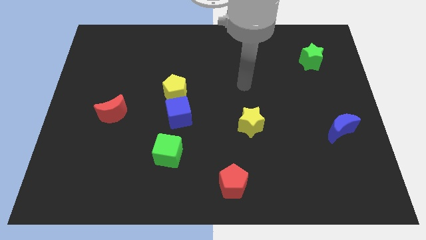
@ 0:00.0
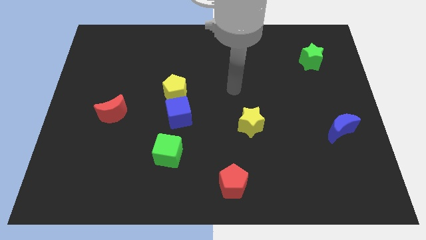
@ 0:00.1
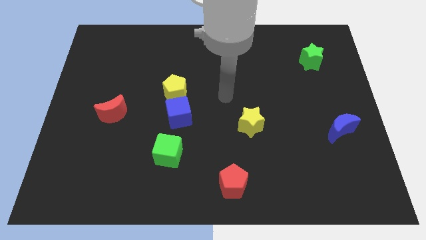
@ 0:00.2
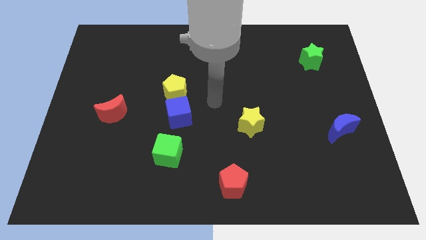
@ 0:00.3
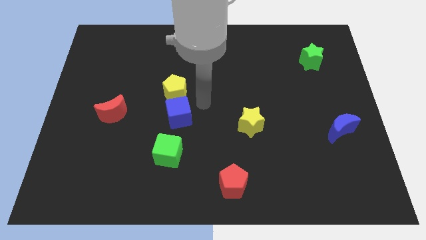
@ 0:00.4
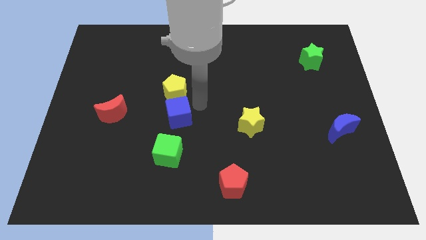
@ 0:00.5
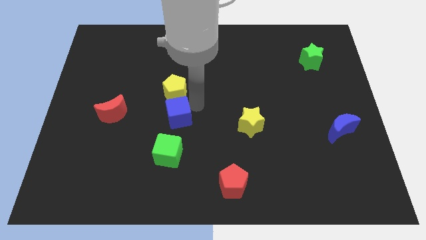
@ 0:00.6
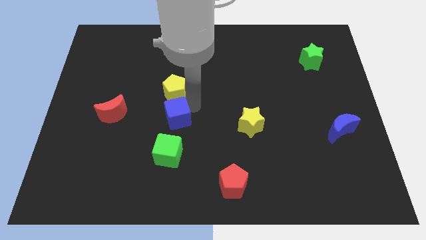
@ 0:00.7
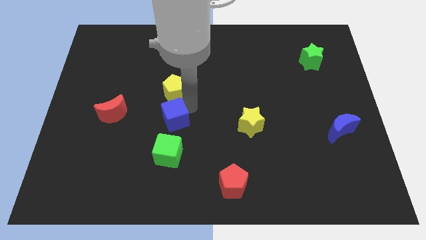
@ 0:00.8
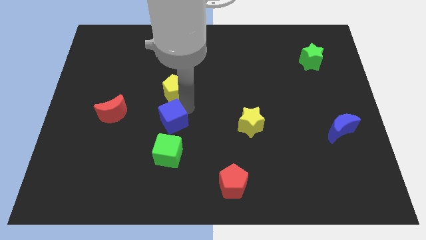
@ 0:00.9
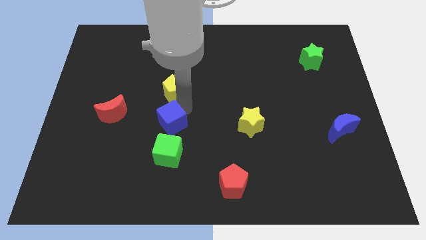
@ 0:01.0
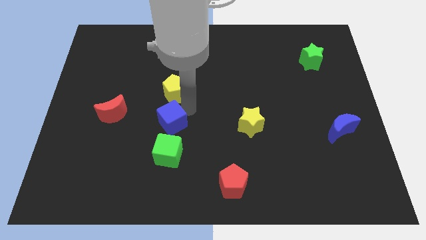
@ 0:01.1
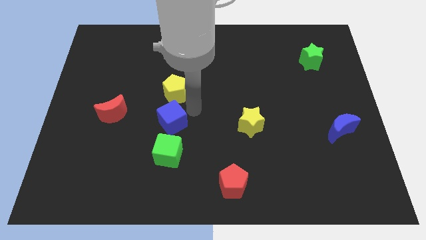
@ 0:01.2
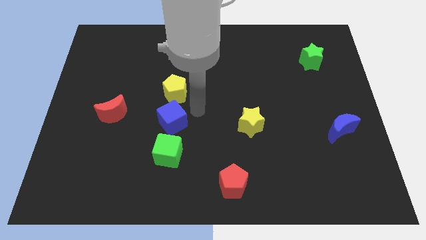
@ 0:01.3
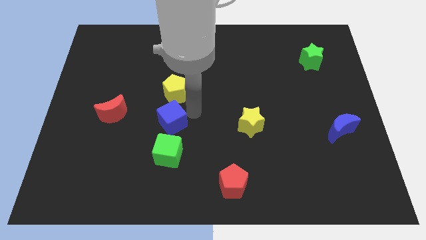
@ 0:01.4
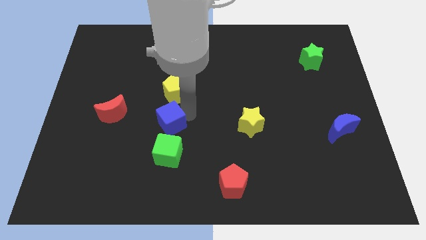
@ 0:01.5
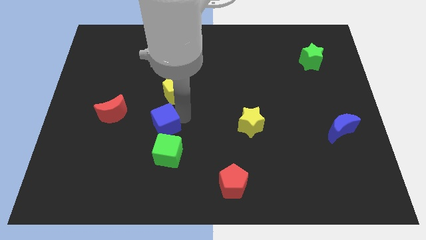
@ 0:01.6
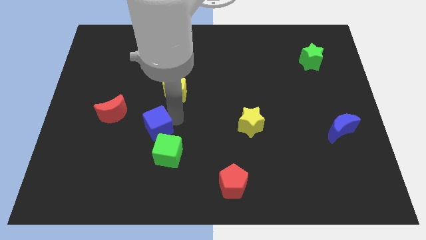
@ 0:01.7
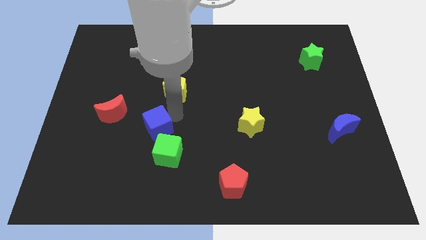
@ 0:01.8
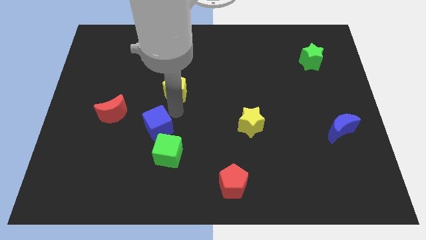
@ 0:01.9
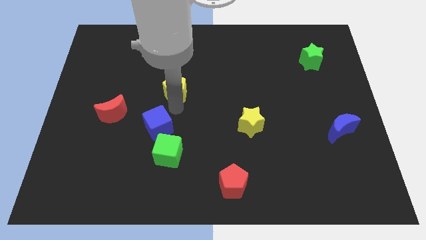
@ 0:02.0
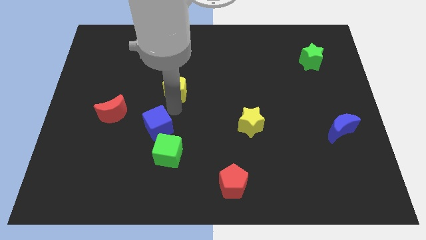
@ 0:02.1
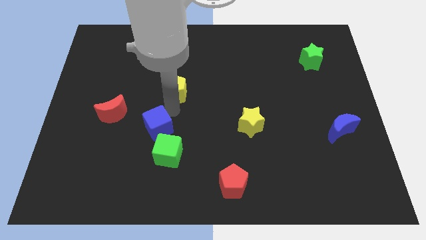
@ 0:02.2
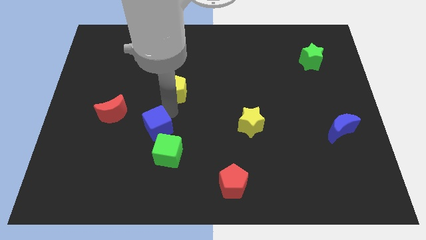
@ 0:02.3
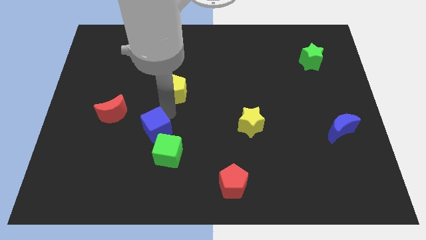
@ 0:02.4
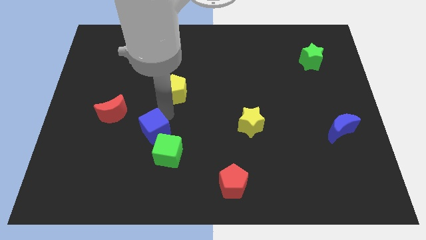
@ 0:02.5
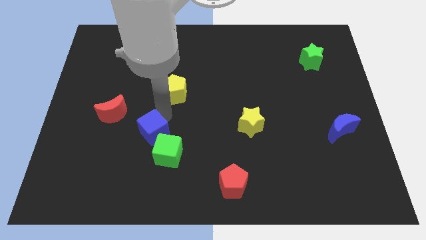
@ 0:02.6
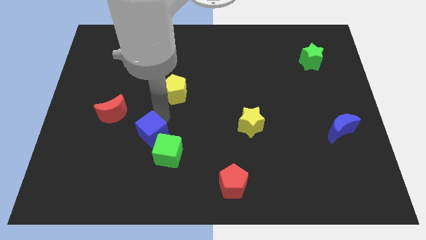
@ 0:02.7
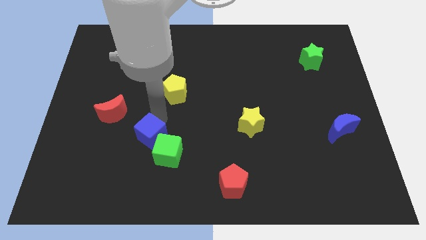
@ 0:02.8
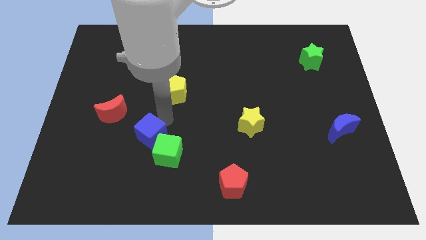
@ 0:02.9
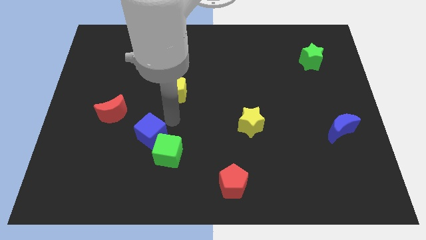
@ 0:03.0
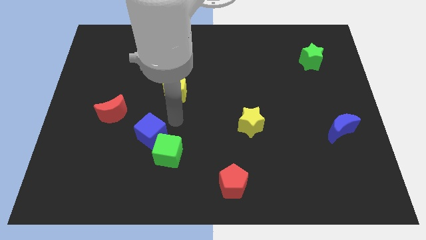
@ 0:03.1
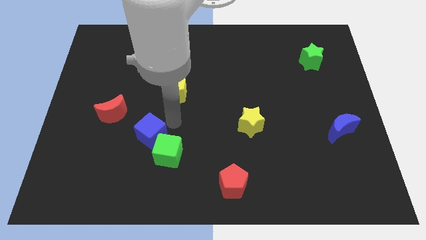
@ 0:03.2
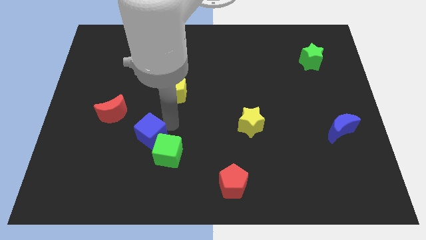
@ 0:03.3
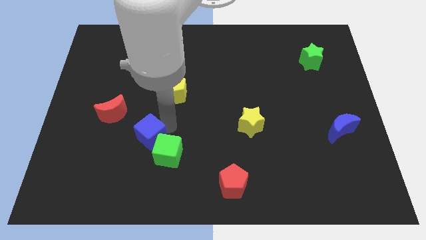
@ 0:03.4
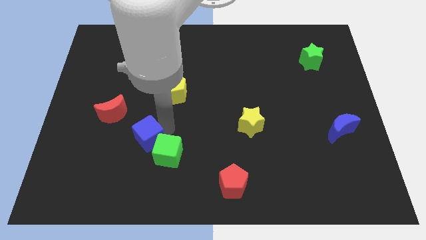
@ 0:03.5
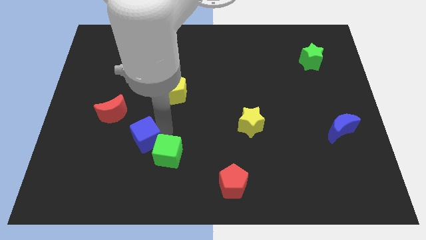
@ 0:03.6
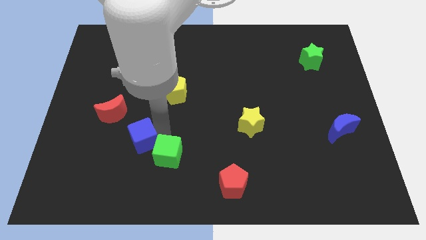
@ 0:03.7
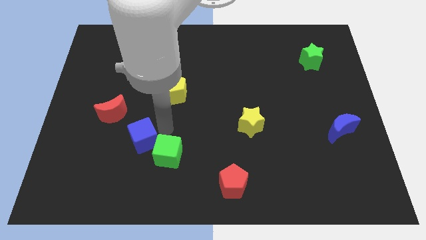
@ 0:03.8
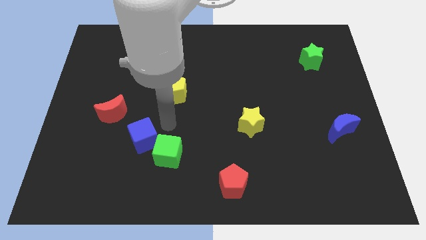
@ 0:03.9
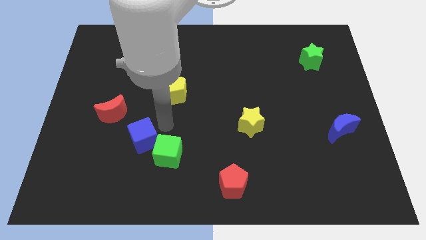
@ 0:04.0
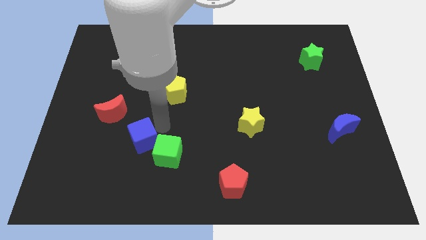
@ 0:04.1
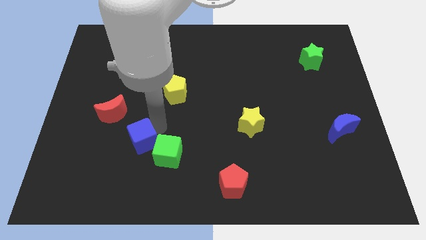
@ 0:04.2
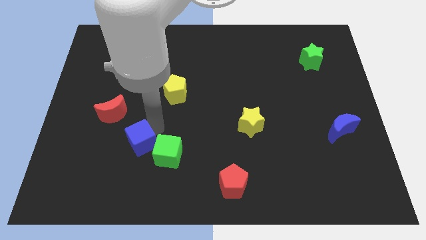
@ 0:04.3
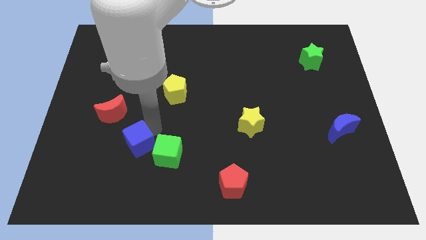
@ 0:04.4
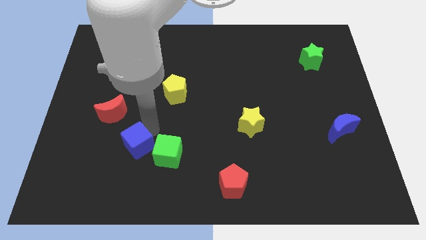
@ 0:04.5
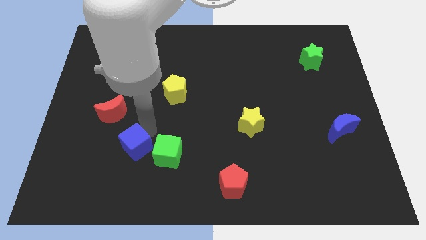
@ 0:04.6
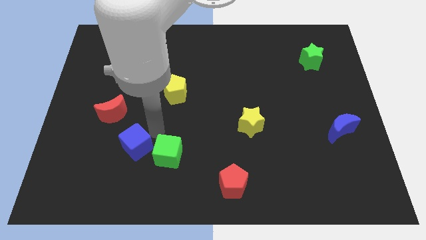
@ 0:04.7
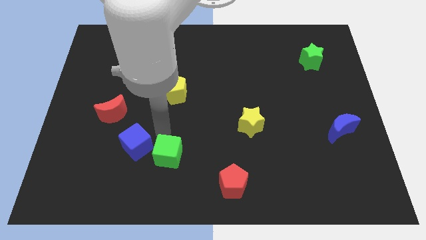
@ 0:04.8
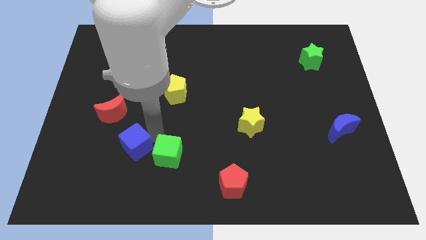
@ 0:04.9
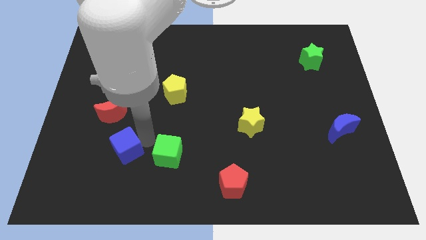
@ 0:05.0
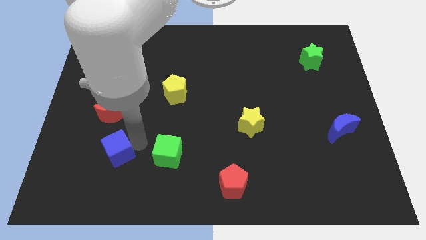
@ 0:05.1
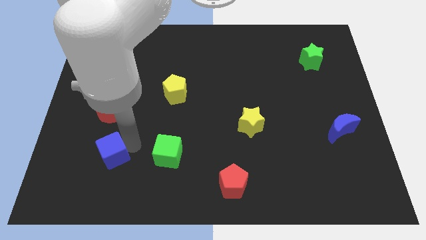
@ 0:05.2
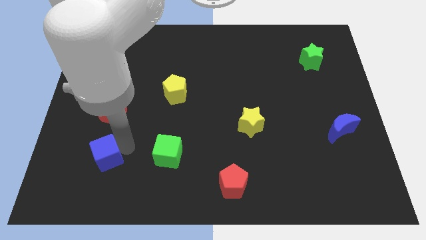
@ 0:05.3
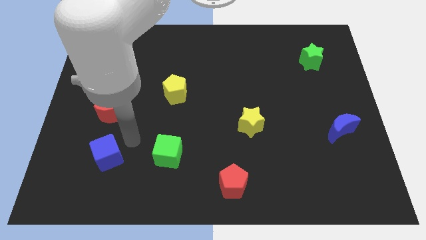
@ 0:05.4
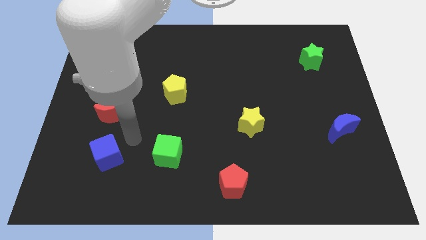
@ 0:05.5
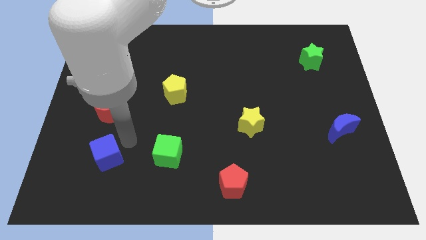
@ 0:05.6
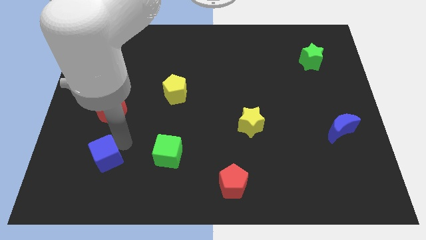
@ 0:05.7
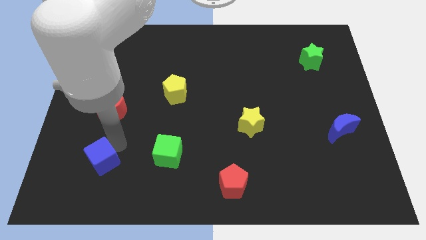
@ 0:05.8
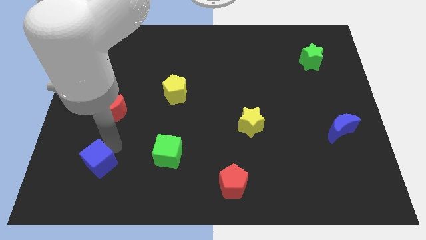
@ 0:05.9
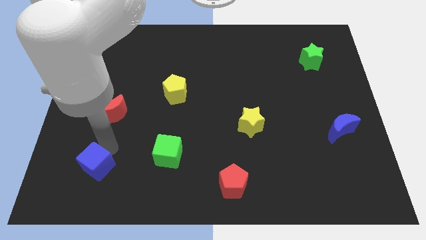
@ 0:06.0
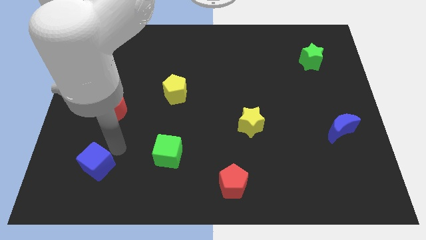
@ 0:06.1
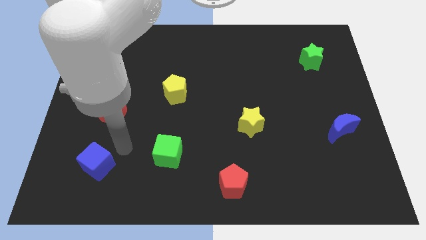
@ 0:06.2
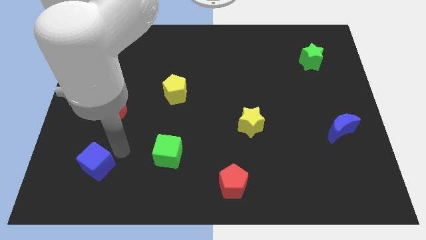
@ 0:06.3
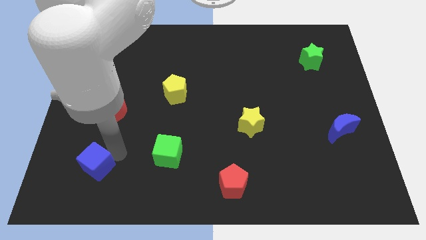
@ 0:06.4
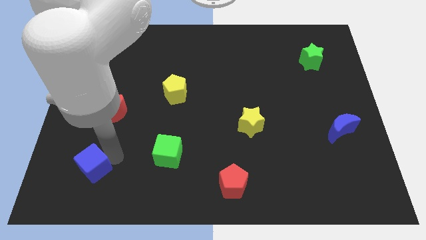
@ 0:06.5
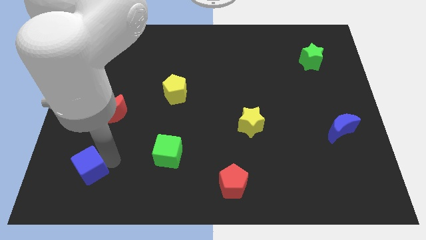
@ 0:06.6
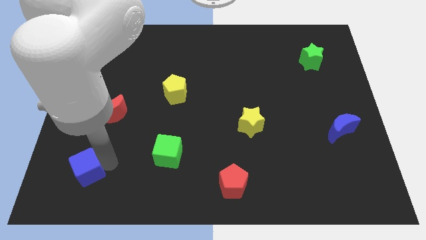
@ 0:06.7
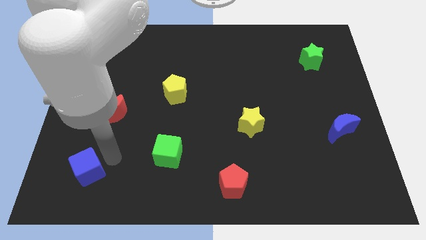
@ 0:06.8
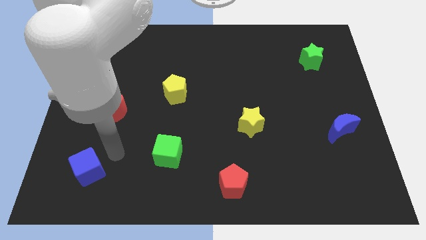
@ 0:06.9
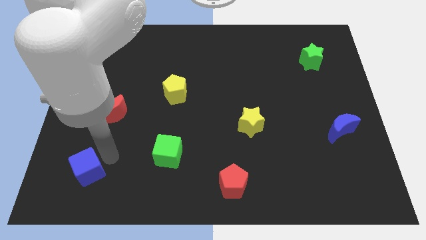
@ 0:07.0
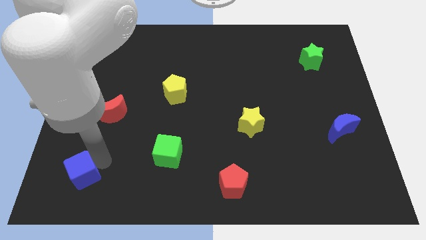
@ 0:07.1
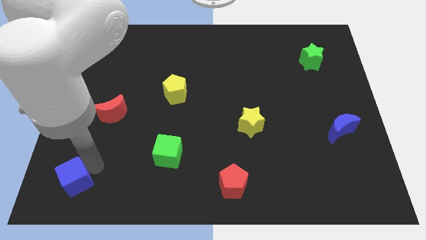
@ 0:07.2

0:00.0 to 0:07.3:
move the blue cube to the bottom left of the board

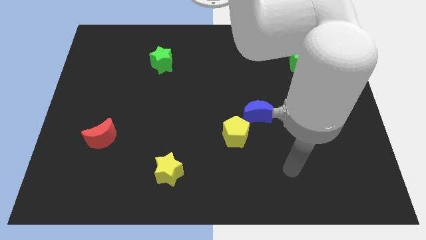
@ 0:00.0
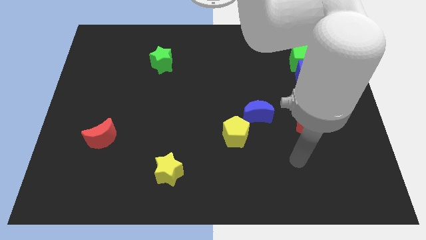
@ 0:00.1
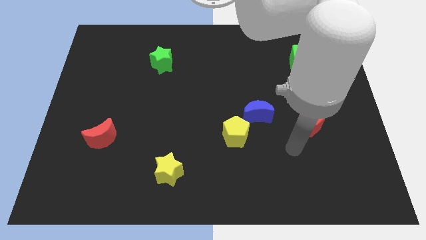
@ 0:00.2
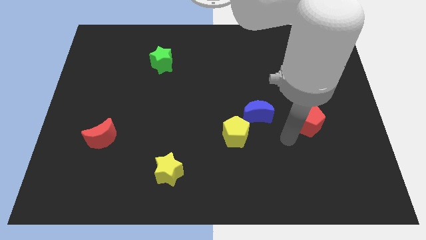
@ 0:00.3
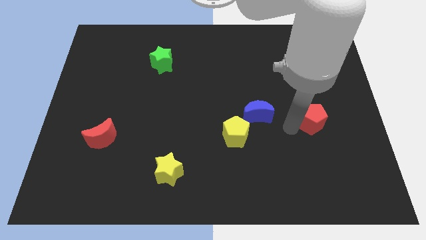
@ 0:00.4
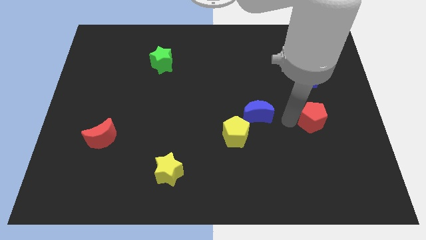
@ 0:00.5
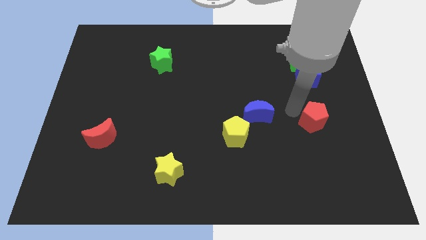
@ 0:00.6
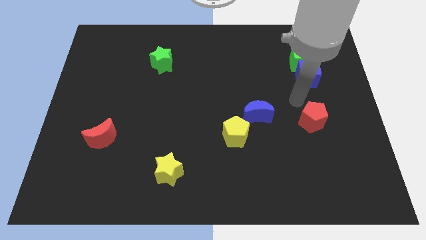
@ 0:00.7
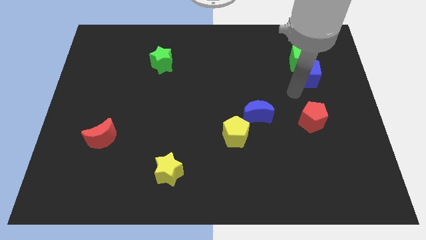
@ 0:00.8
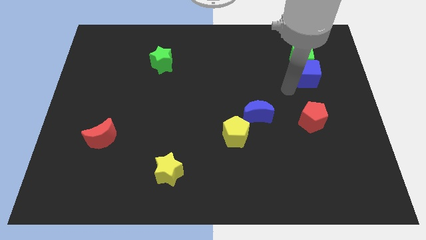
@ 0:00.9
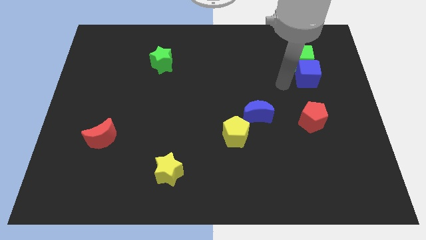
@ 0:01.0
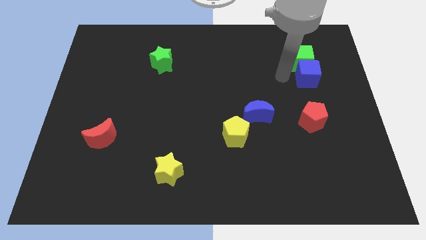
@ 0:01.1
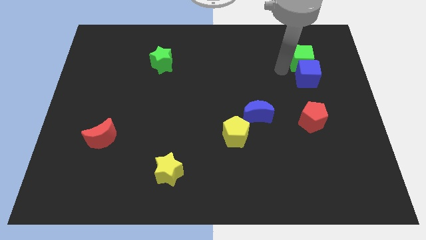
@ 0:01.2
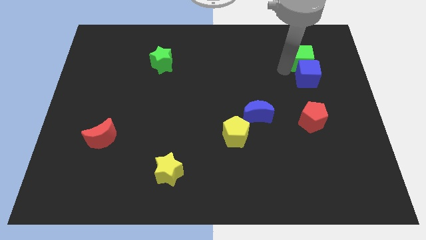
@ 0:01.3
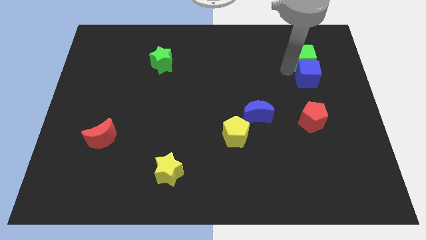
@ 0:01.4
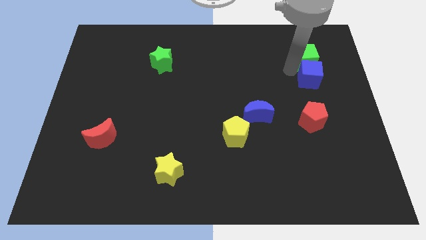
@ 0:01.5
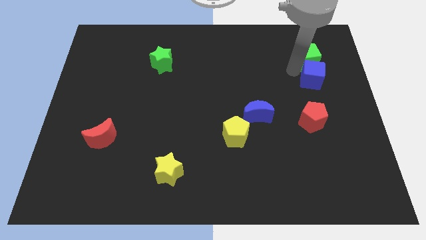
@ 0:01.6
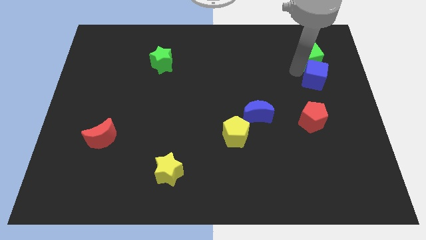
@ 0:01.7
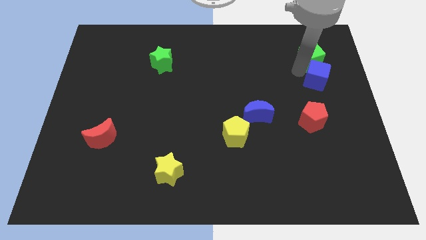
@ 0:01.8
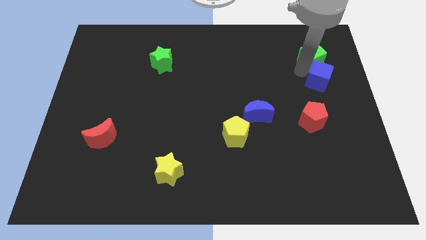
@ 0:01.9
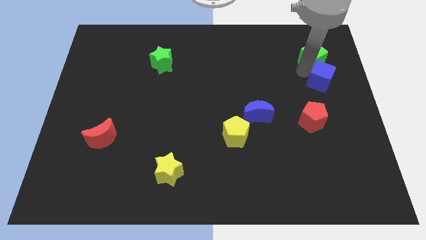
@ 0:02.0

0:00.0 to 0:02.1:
push the blue cube to the right side
